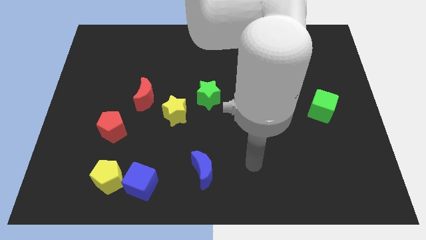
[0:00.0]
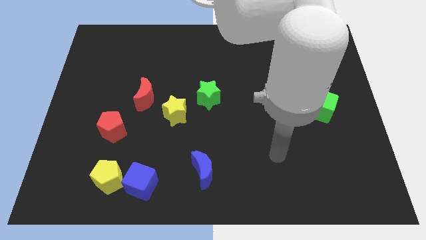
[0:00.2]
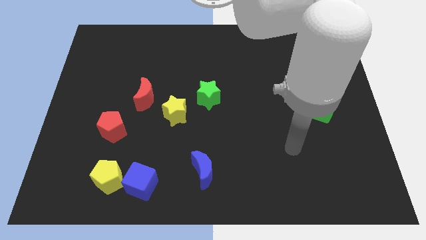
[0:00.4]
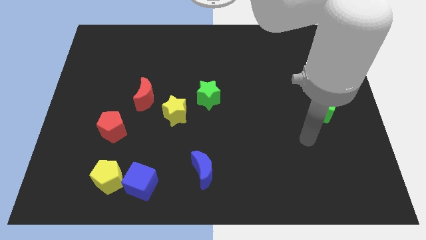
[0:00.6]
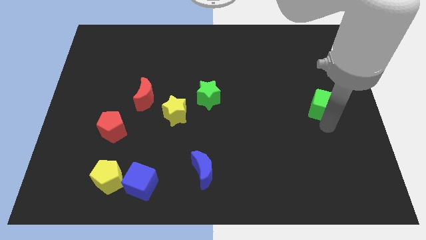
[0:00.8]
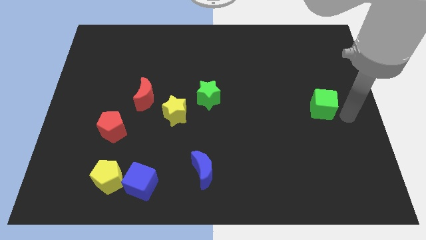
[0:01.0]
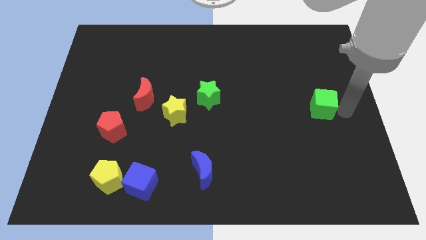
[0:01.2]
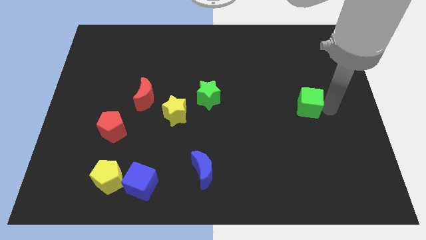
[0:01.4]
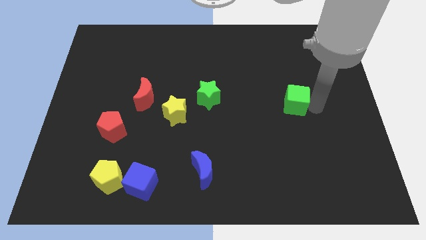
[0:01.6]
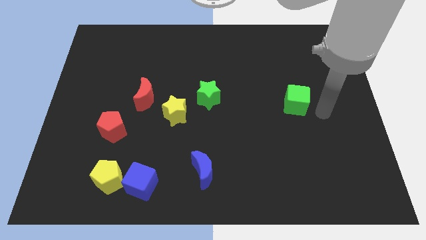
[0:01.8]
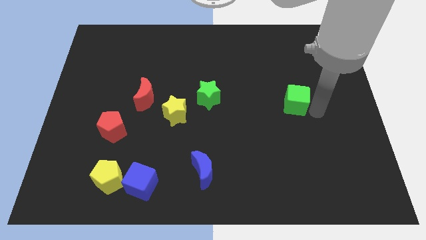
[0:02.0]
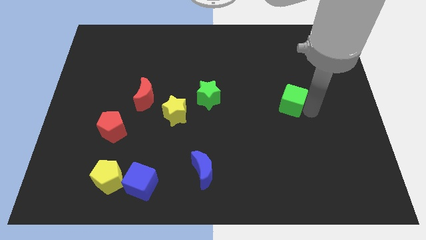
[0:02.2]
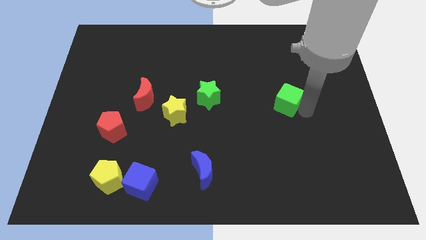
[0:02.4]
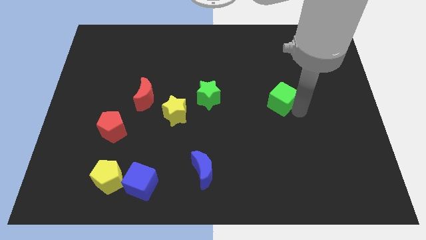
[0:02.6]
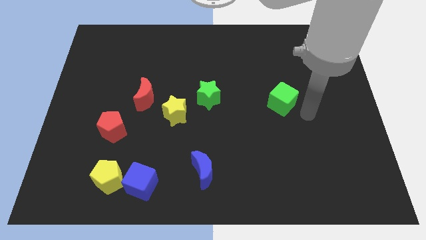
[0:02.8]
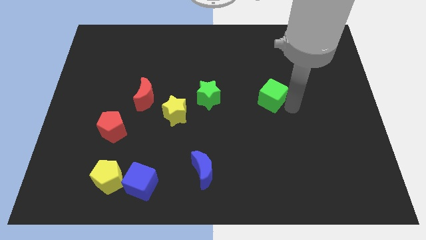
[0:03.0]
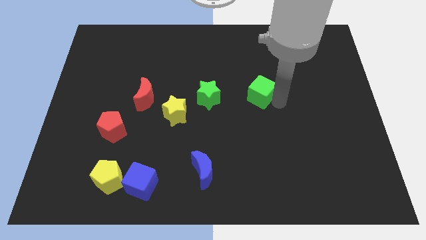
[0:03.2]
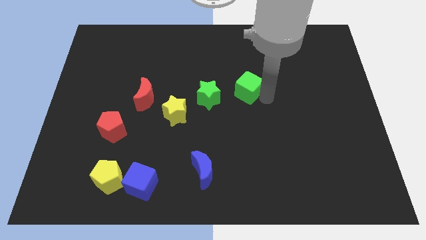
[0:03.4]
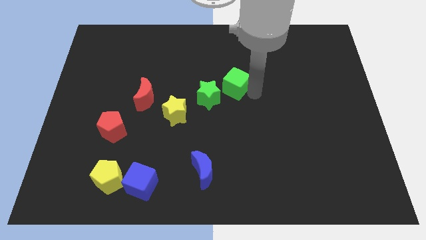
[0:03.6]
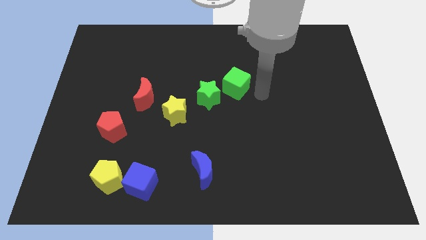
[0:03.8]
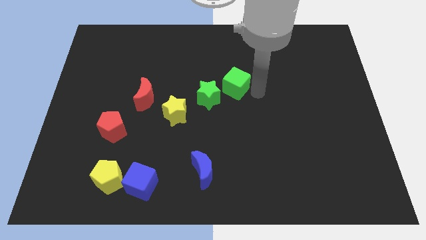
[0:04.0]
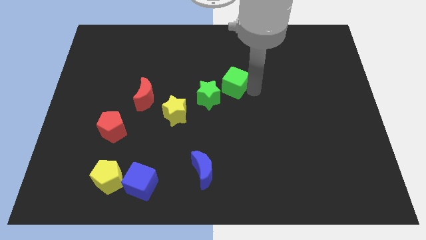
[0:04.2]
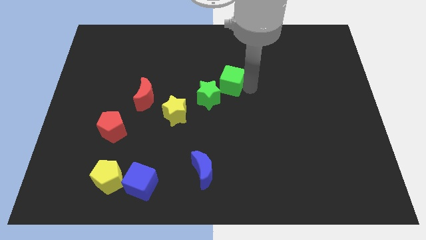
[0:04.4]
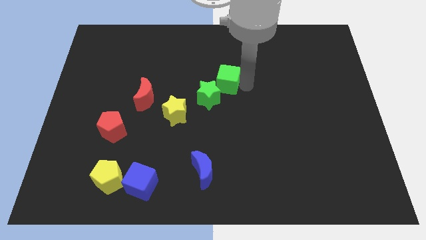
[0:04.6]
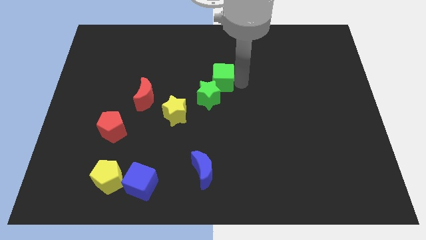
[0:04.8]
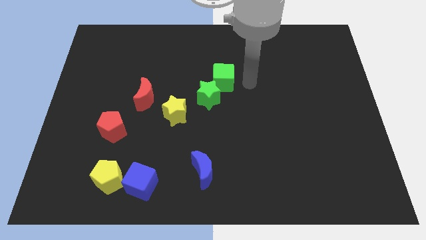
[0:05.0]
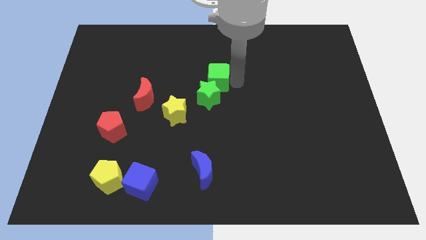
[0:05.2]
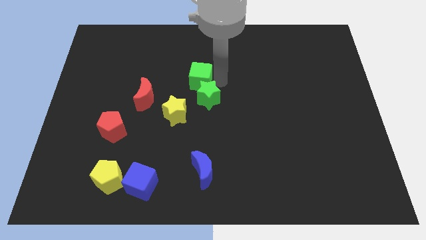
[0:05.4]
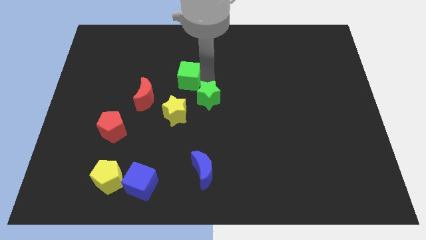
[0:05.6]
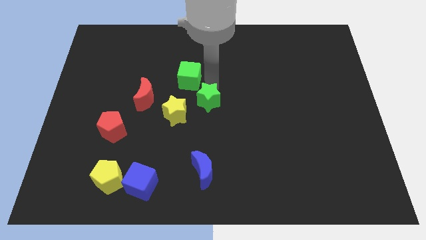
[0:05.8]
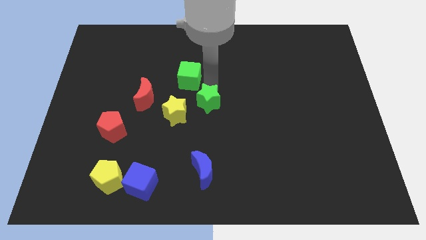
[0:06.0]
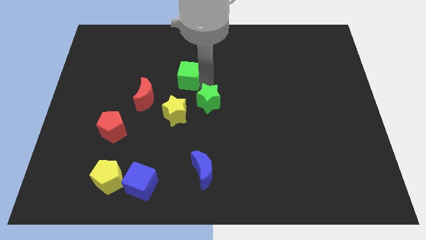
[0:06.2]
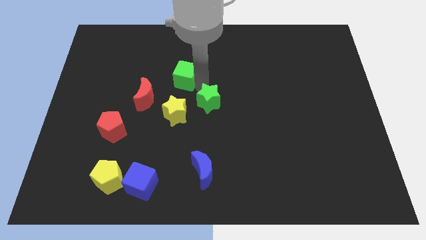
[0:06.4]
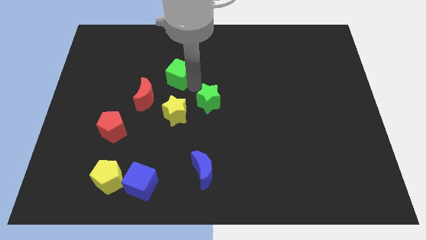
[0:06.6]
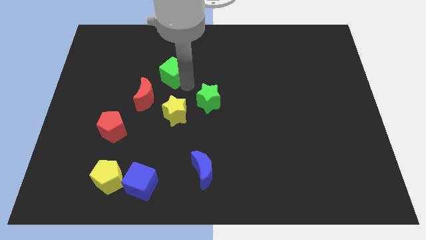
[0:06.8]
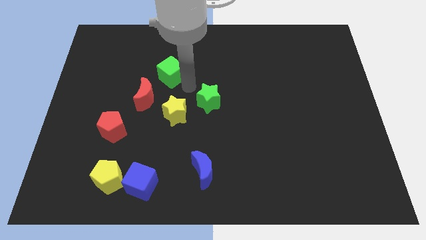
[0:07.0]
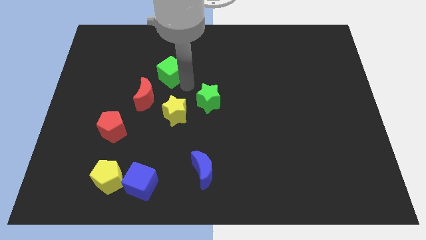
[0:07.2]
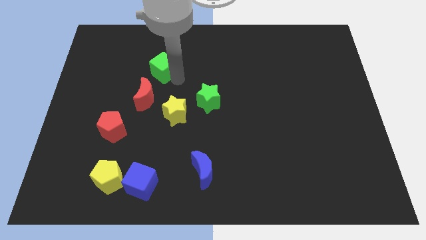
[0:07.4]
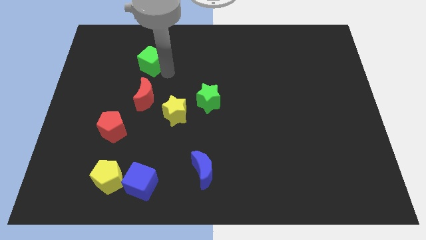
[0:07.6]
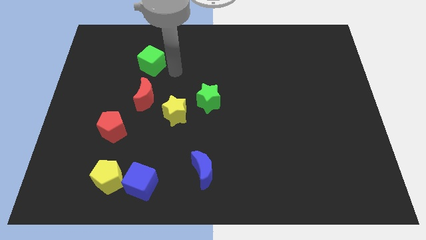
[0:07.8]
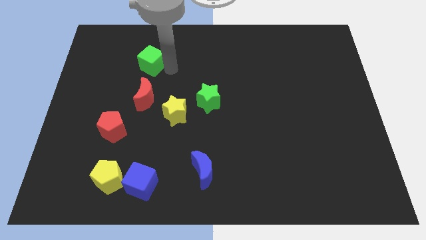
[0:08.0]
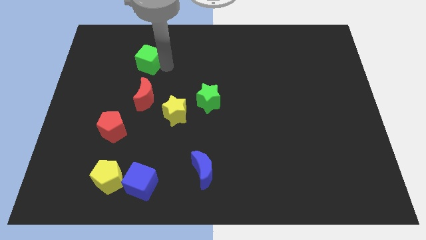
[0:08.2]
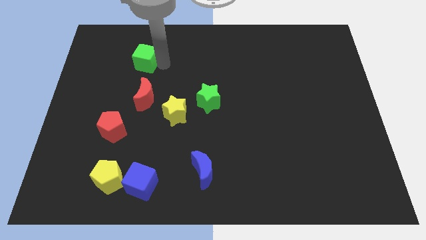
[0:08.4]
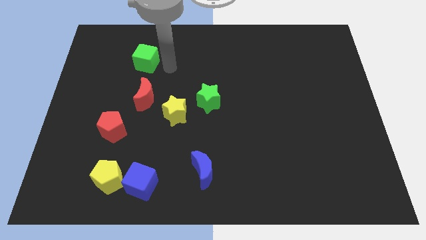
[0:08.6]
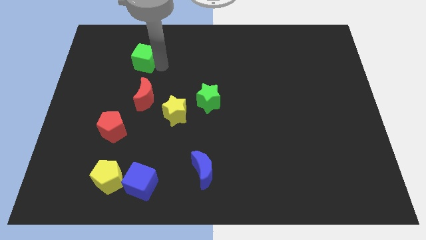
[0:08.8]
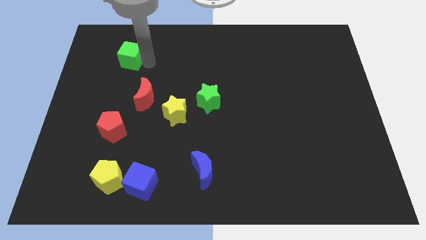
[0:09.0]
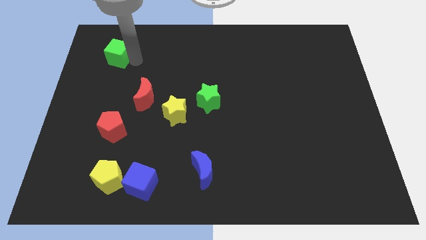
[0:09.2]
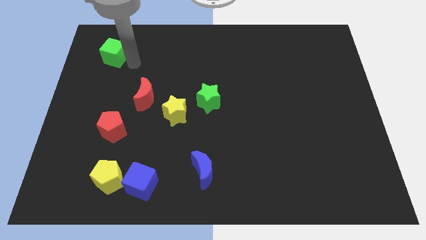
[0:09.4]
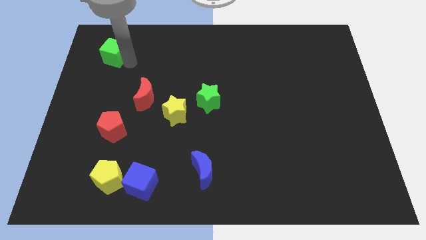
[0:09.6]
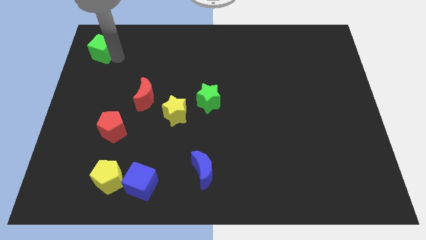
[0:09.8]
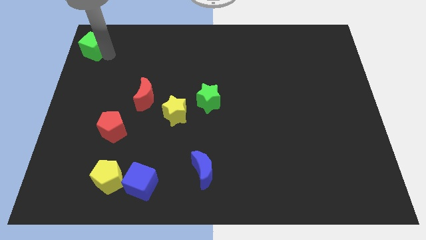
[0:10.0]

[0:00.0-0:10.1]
slide the green cube to the top left corner

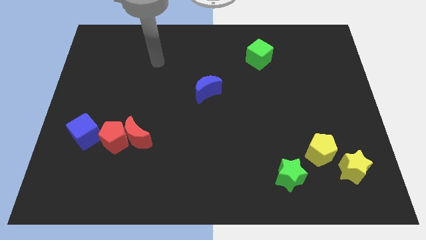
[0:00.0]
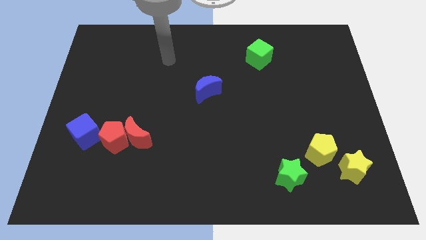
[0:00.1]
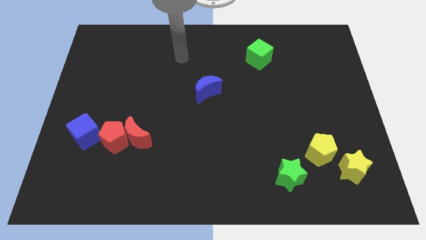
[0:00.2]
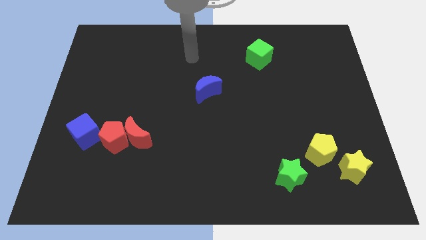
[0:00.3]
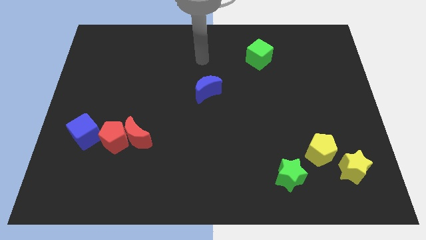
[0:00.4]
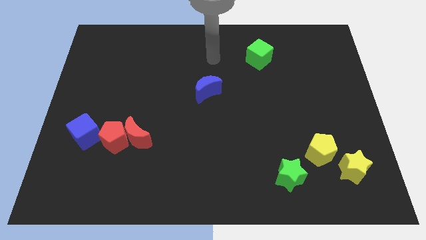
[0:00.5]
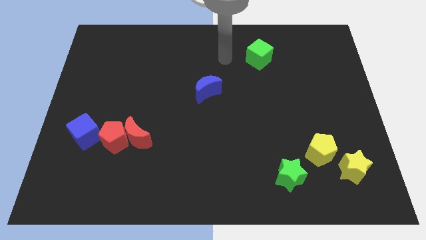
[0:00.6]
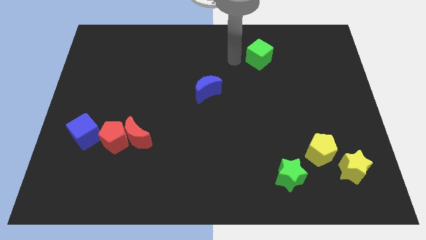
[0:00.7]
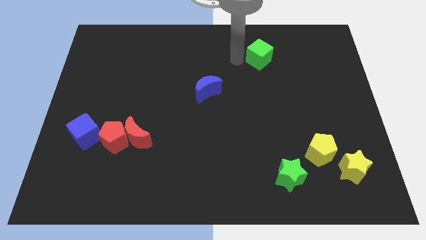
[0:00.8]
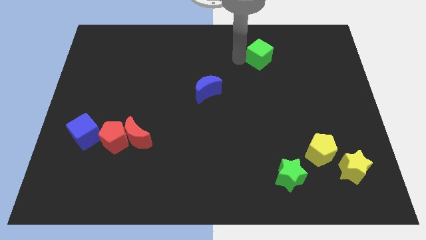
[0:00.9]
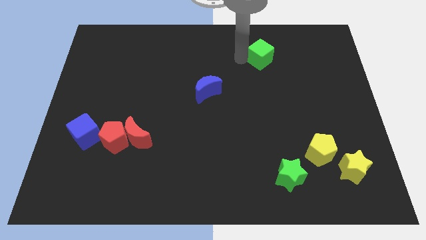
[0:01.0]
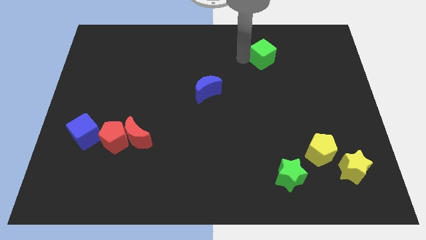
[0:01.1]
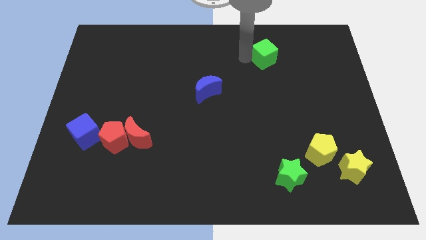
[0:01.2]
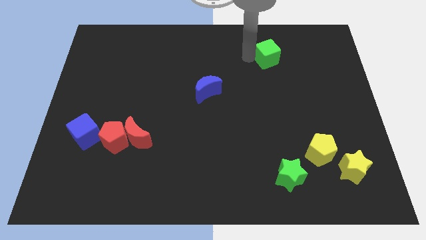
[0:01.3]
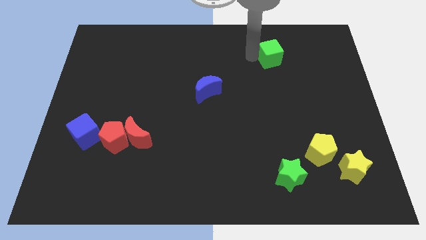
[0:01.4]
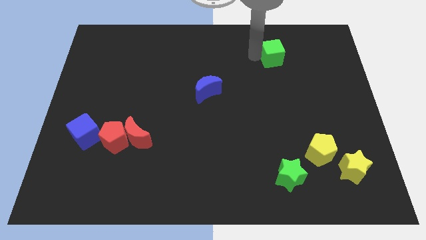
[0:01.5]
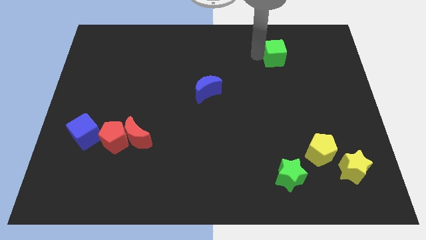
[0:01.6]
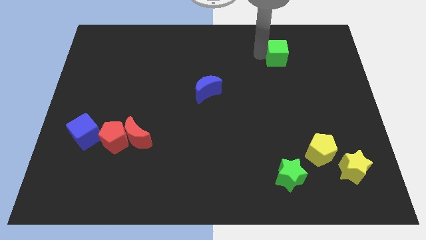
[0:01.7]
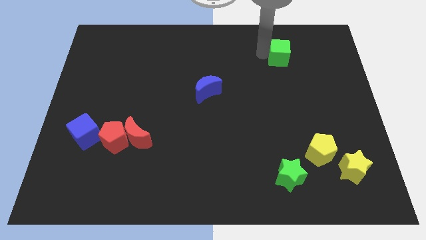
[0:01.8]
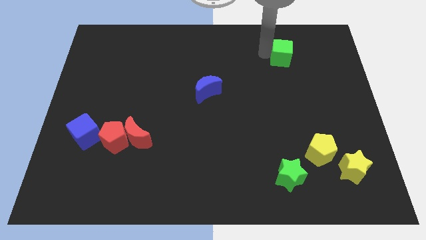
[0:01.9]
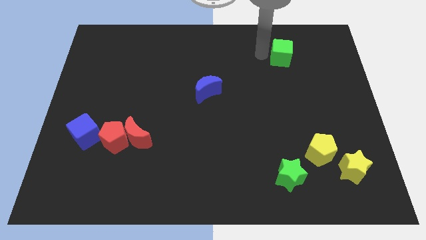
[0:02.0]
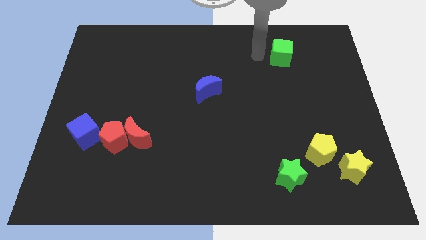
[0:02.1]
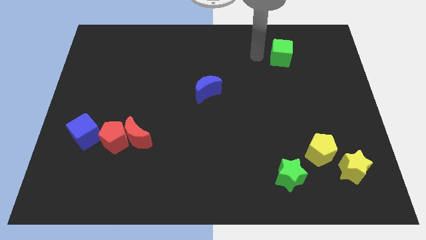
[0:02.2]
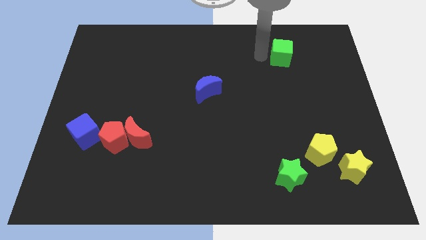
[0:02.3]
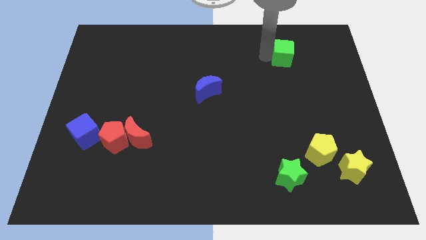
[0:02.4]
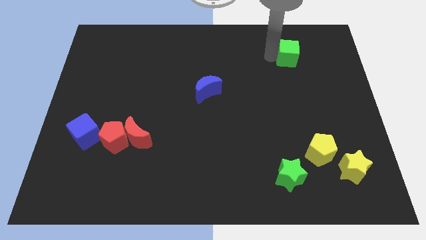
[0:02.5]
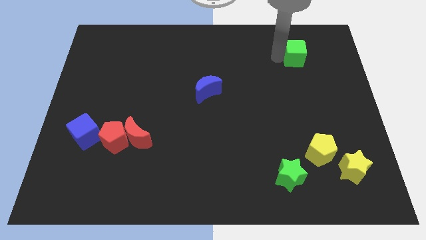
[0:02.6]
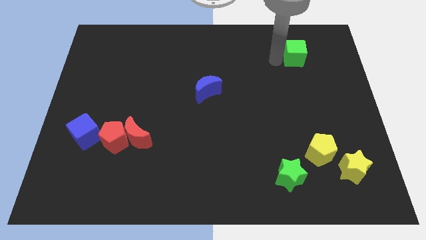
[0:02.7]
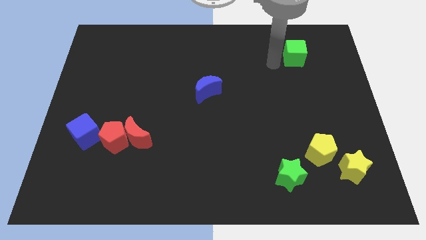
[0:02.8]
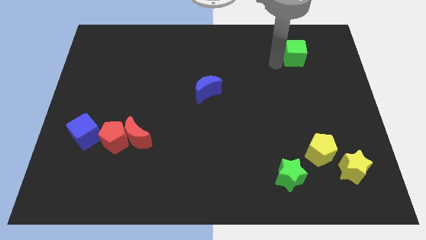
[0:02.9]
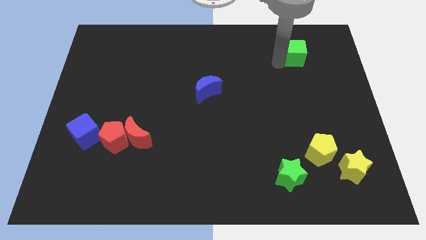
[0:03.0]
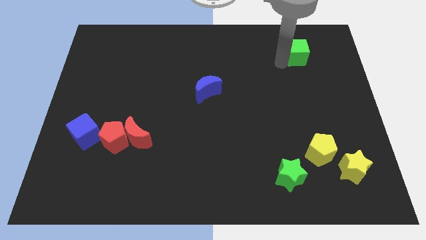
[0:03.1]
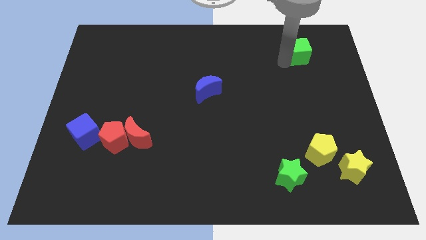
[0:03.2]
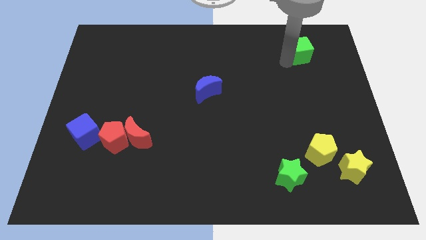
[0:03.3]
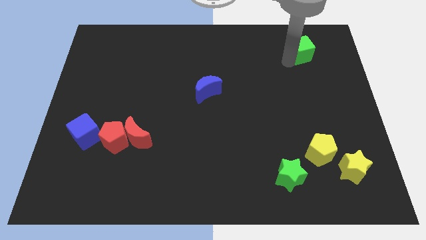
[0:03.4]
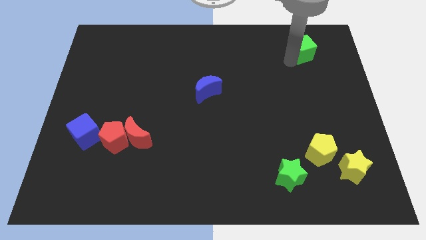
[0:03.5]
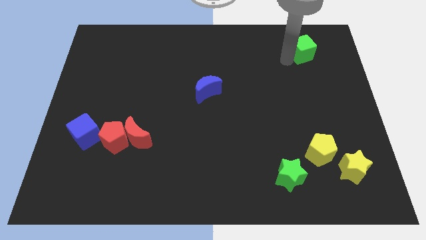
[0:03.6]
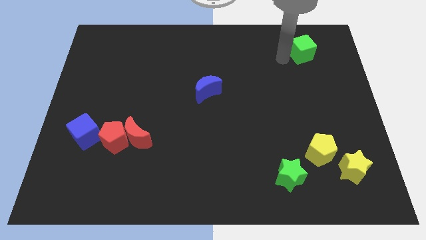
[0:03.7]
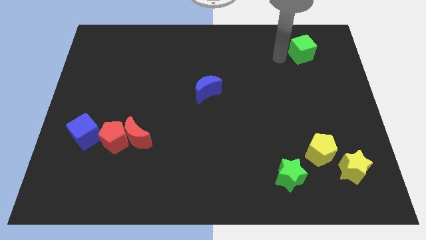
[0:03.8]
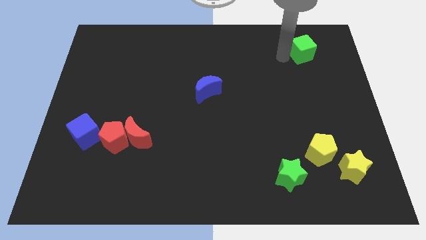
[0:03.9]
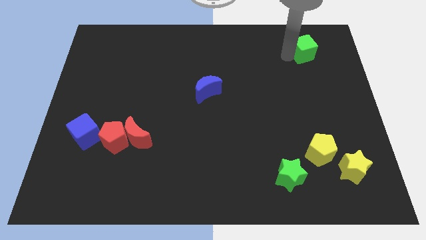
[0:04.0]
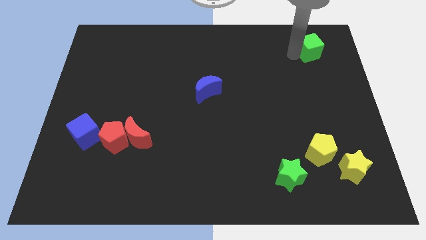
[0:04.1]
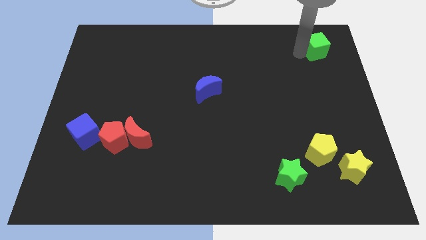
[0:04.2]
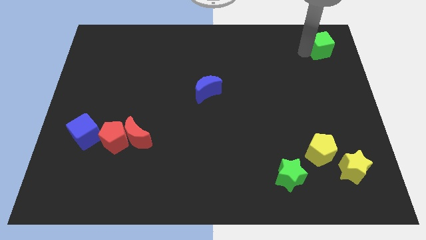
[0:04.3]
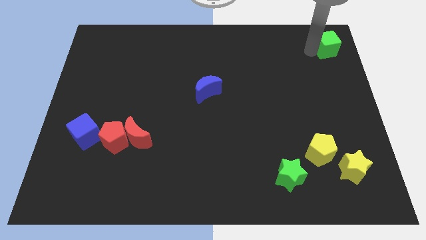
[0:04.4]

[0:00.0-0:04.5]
move the green cube to the top right corner
